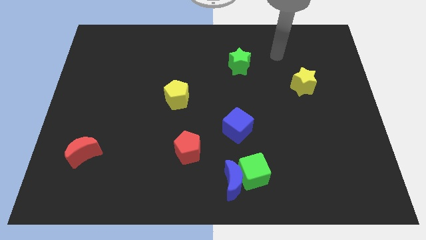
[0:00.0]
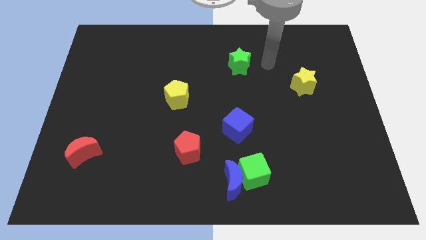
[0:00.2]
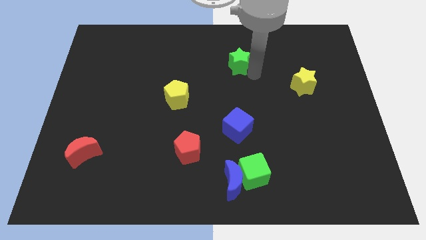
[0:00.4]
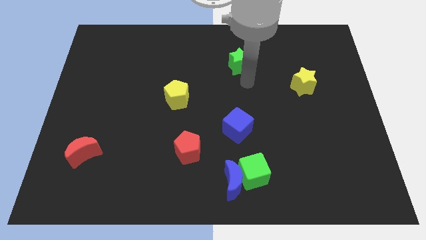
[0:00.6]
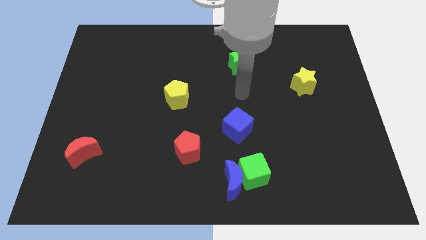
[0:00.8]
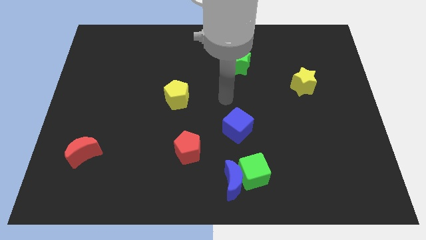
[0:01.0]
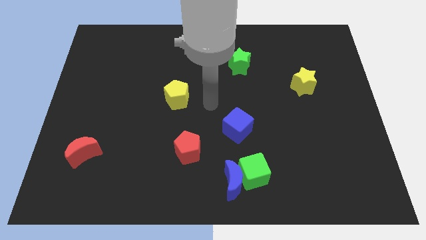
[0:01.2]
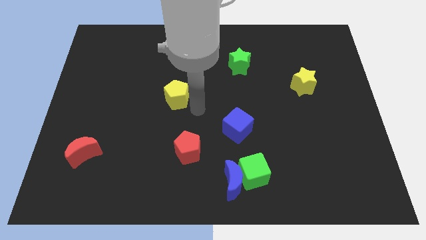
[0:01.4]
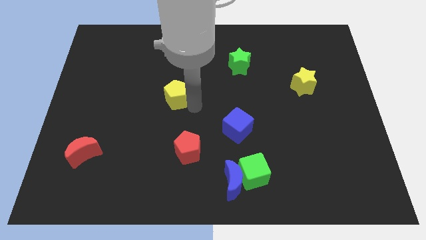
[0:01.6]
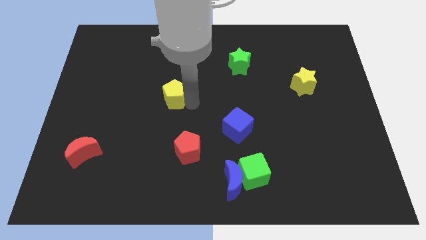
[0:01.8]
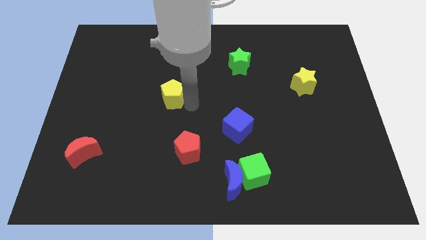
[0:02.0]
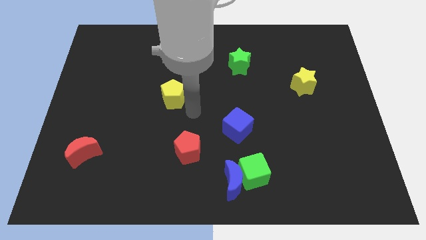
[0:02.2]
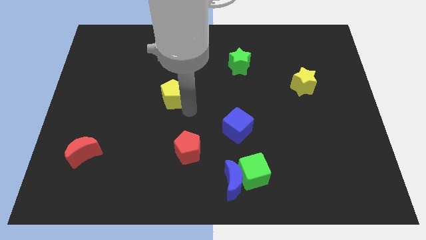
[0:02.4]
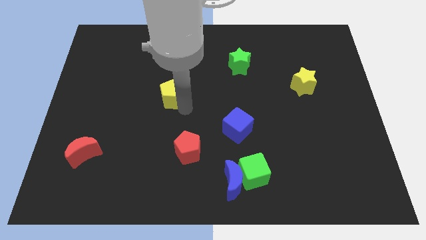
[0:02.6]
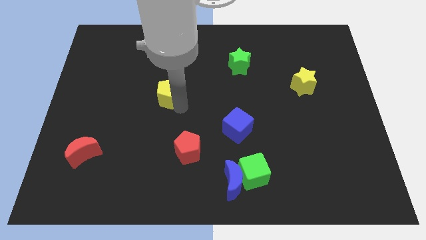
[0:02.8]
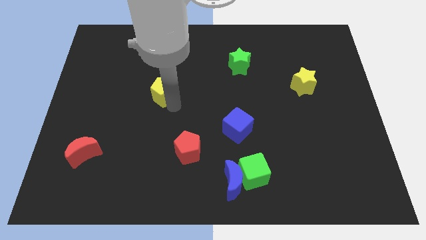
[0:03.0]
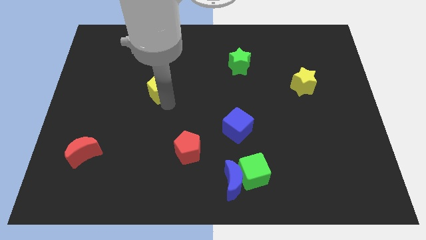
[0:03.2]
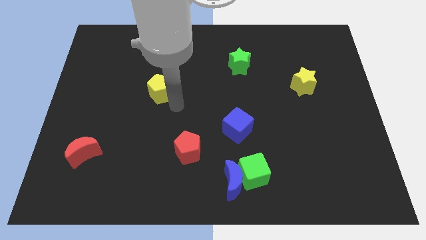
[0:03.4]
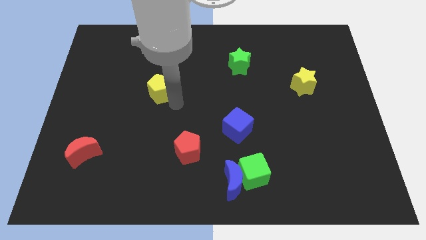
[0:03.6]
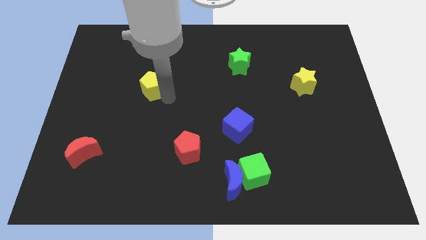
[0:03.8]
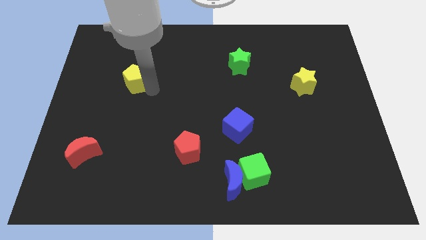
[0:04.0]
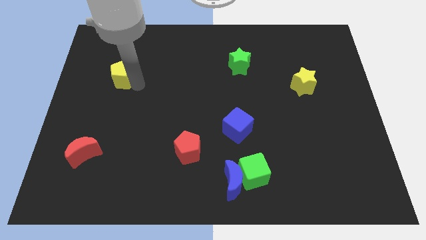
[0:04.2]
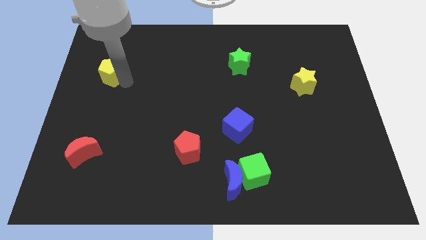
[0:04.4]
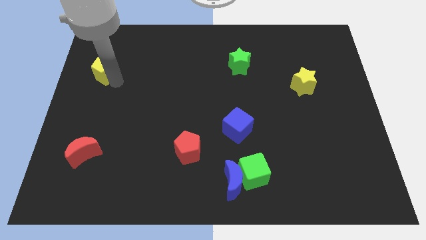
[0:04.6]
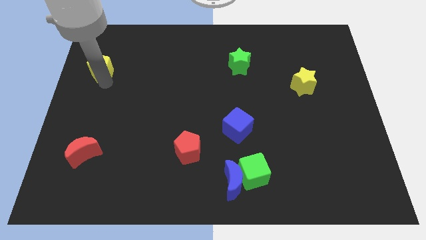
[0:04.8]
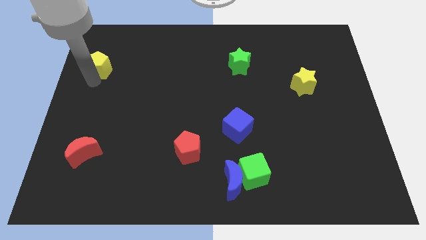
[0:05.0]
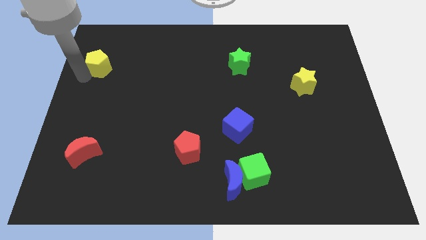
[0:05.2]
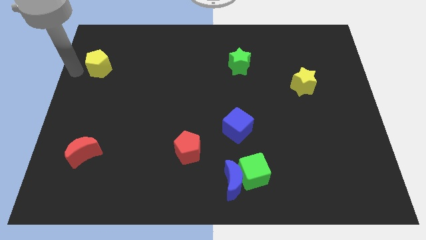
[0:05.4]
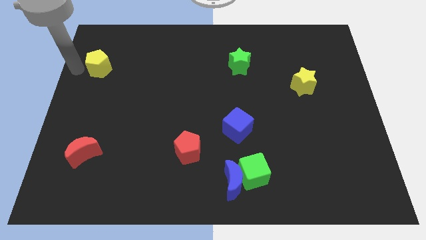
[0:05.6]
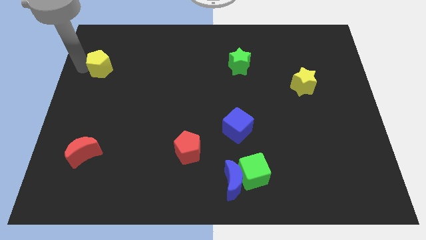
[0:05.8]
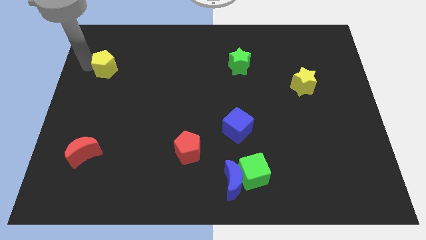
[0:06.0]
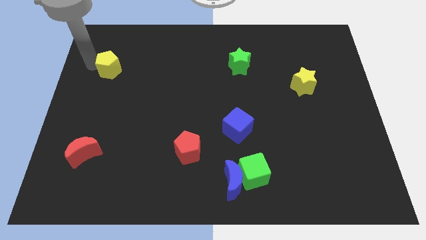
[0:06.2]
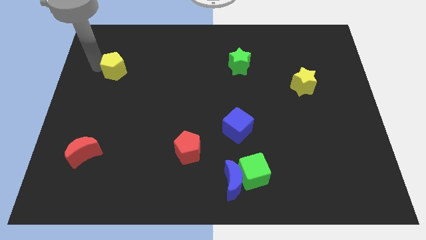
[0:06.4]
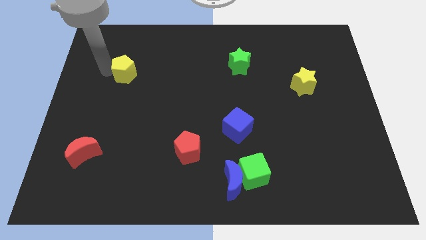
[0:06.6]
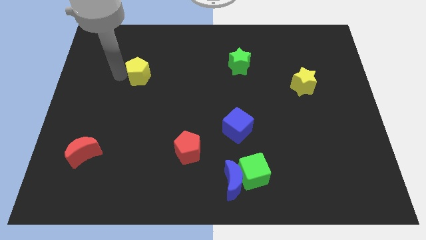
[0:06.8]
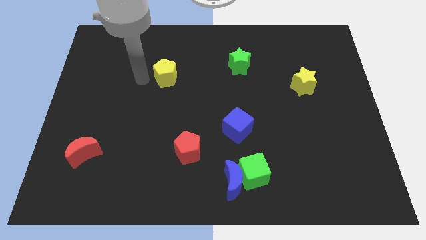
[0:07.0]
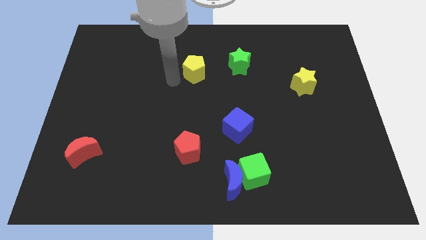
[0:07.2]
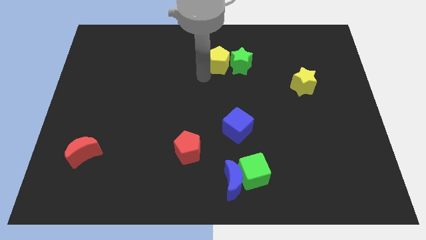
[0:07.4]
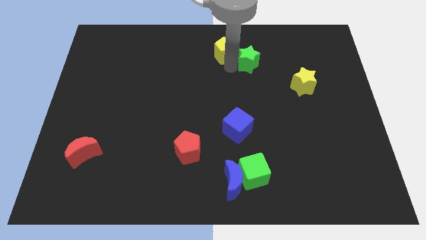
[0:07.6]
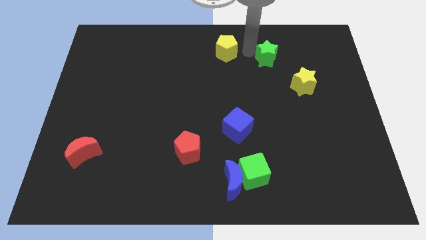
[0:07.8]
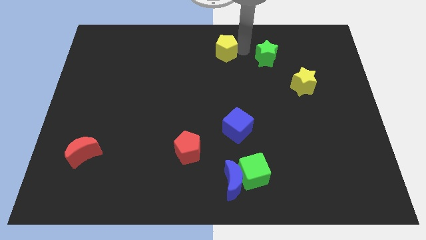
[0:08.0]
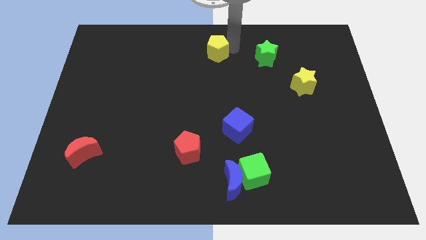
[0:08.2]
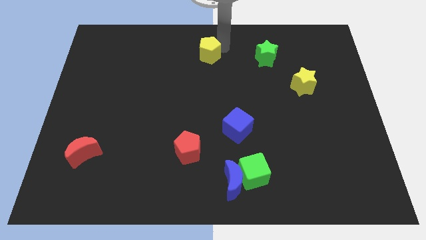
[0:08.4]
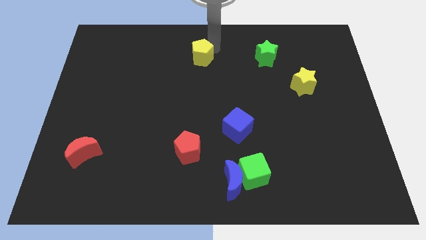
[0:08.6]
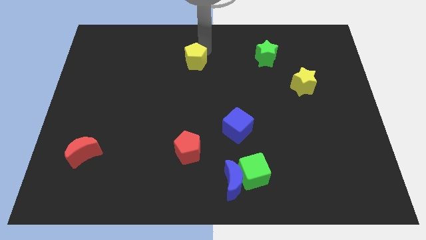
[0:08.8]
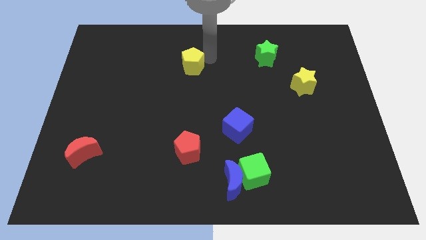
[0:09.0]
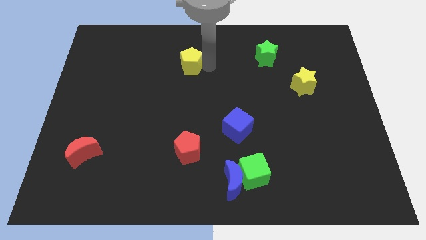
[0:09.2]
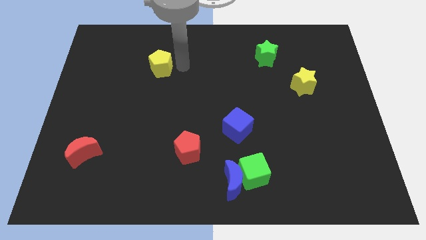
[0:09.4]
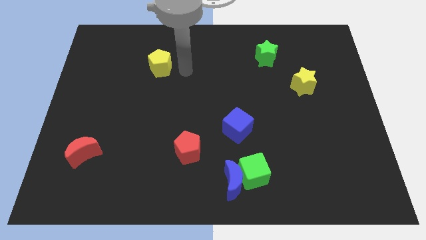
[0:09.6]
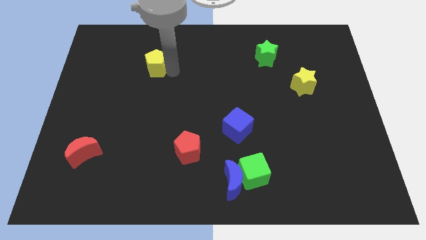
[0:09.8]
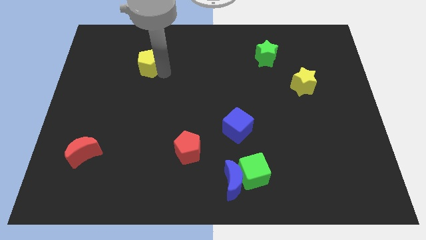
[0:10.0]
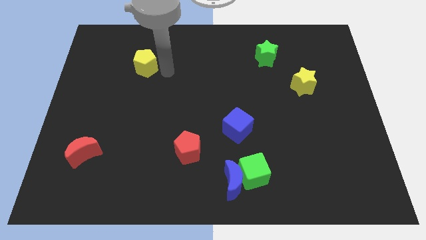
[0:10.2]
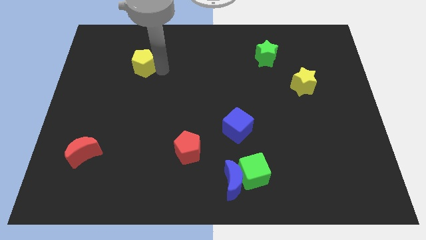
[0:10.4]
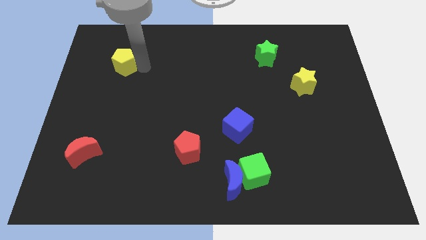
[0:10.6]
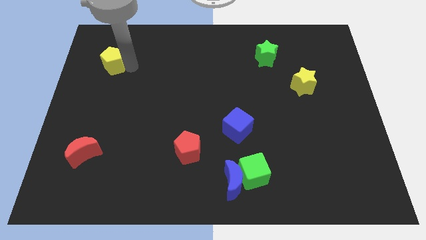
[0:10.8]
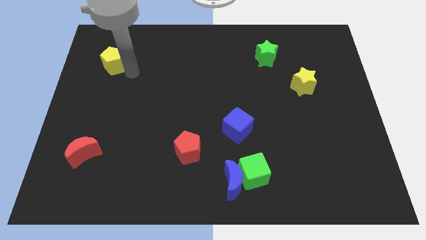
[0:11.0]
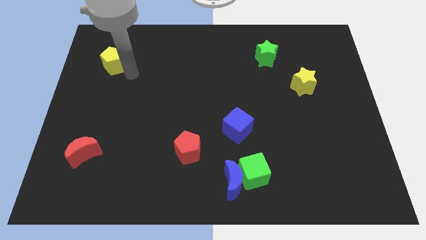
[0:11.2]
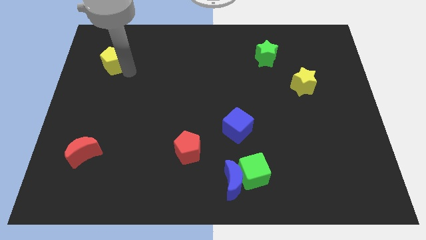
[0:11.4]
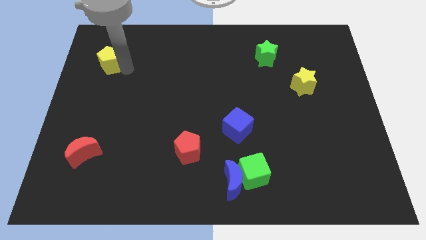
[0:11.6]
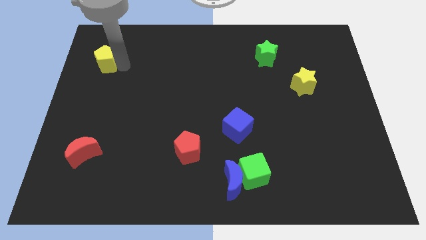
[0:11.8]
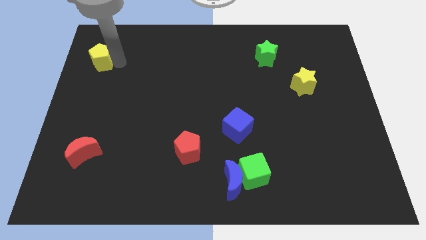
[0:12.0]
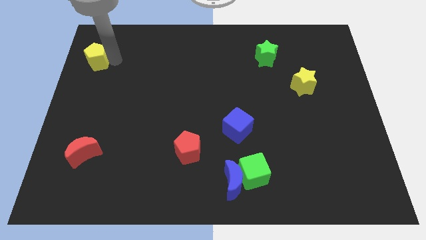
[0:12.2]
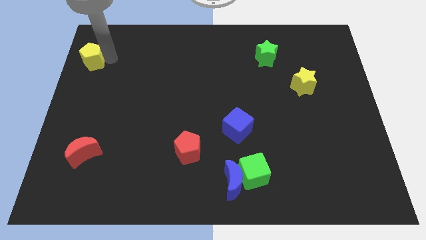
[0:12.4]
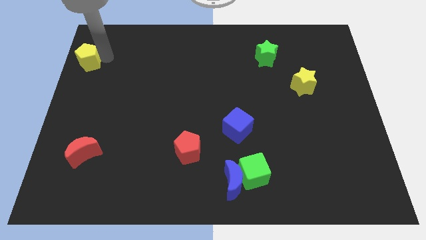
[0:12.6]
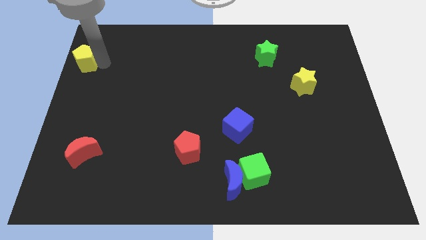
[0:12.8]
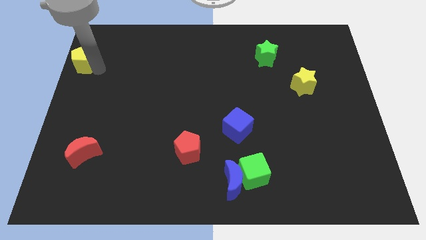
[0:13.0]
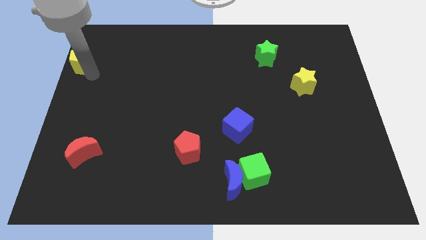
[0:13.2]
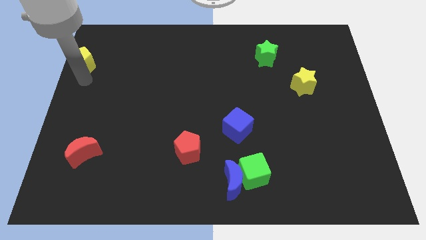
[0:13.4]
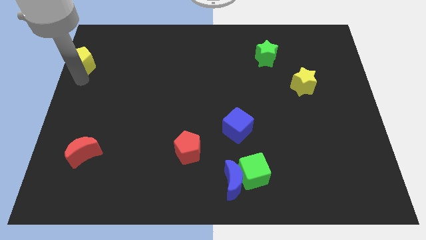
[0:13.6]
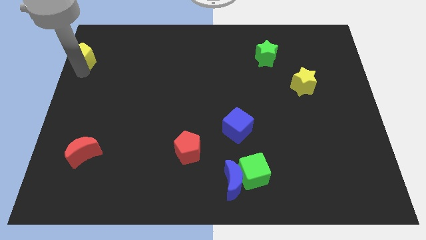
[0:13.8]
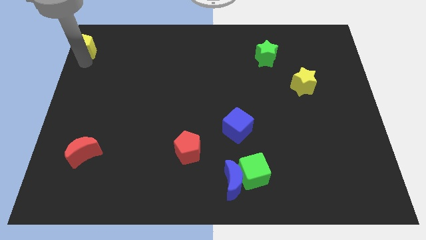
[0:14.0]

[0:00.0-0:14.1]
slide the yellow pentagon to the top left corner
